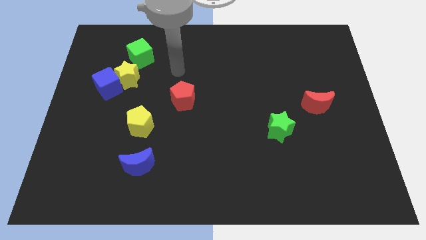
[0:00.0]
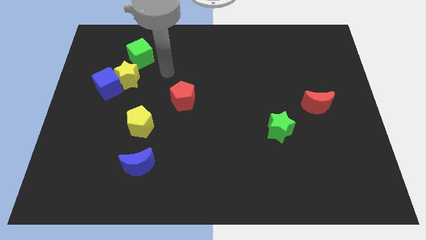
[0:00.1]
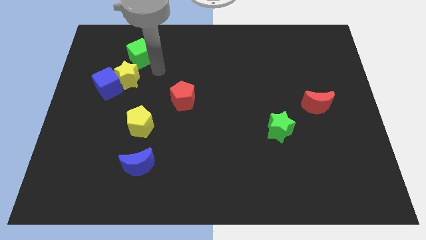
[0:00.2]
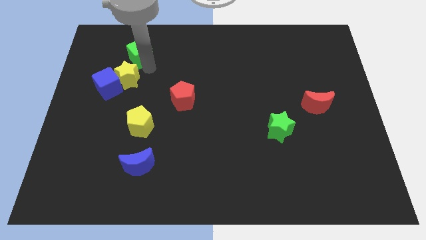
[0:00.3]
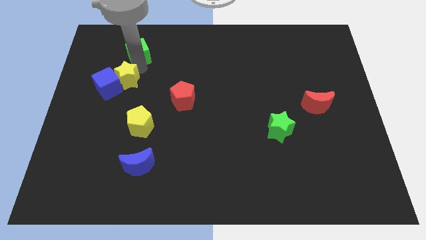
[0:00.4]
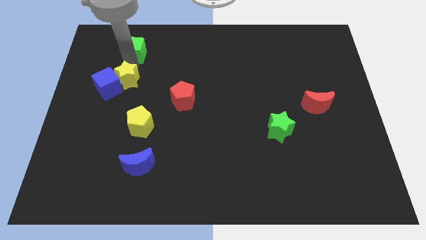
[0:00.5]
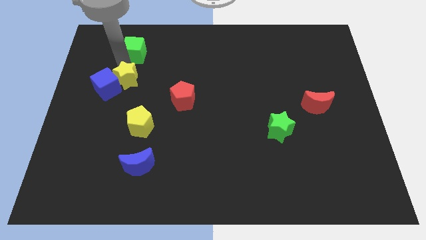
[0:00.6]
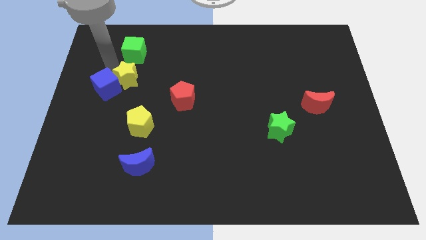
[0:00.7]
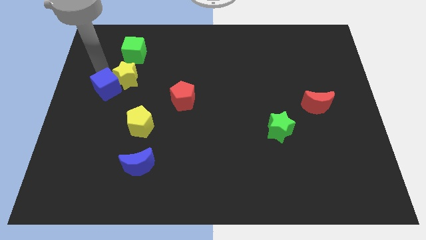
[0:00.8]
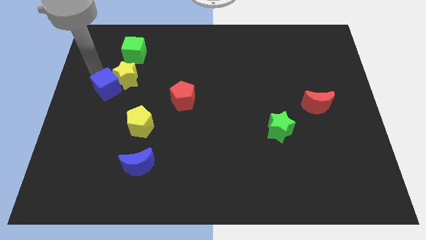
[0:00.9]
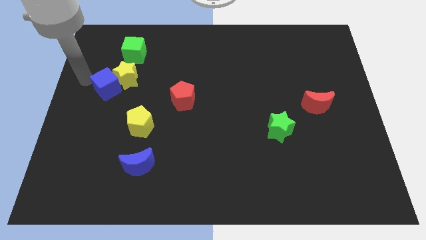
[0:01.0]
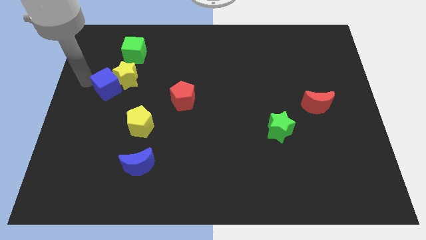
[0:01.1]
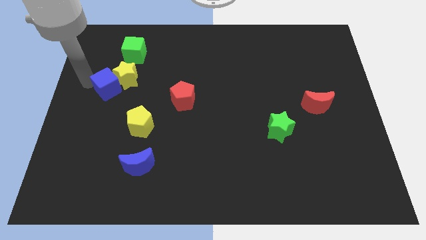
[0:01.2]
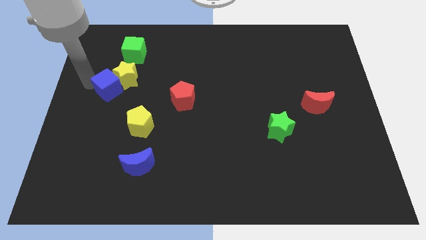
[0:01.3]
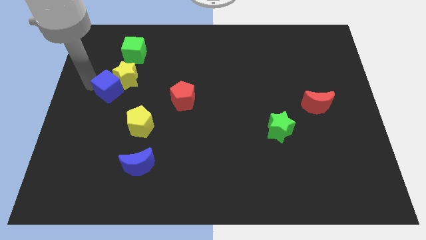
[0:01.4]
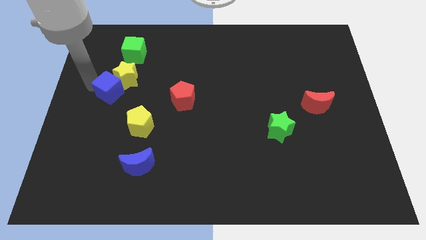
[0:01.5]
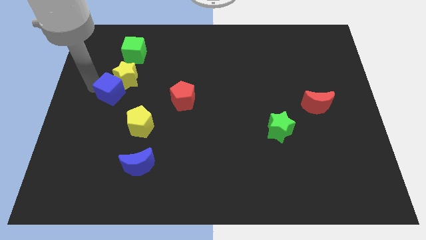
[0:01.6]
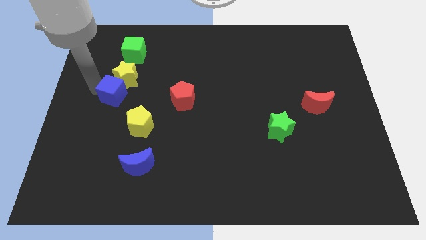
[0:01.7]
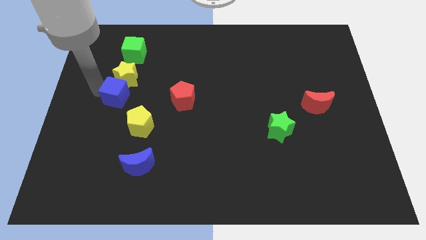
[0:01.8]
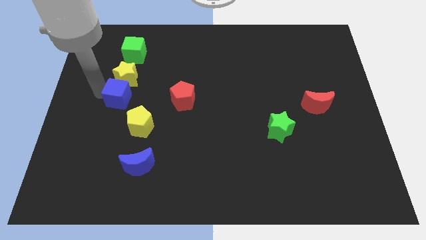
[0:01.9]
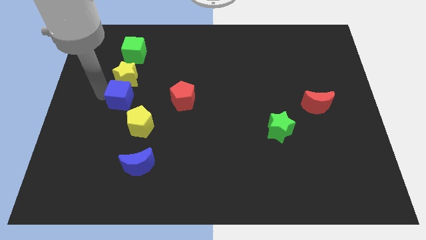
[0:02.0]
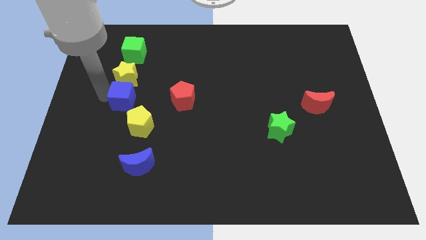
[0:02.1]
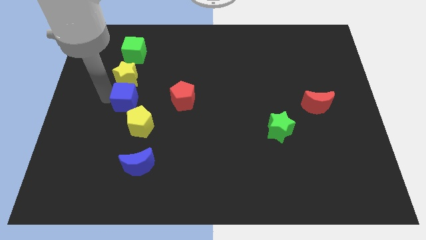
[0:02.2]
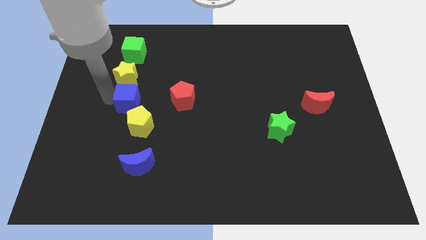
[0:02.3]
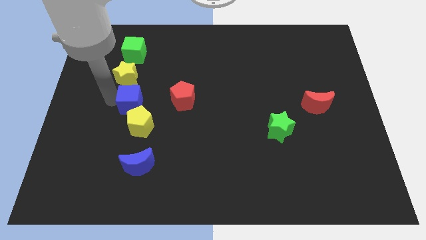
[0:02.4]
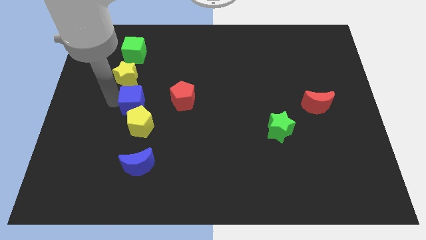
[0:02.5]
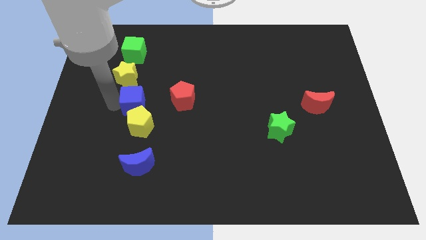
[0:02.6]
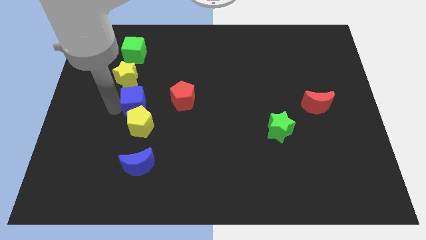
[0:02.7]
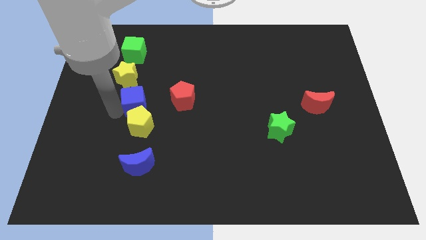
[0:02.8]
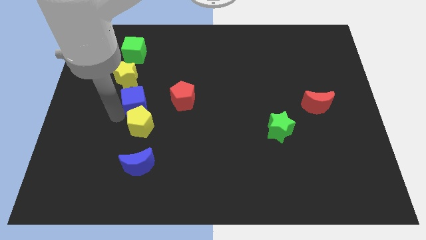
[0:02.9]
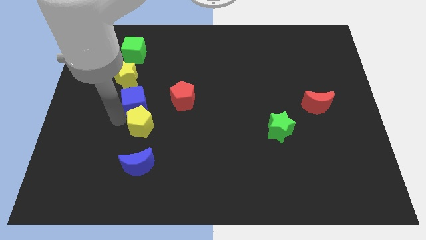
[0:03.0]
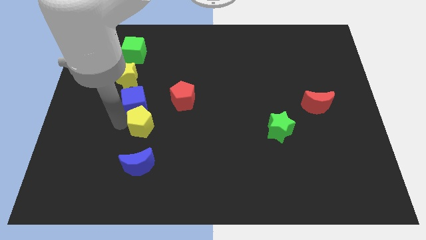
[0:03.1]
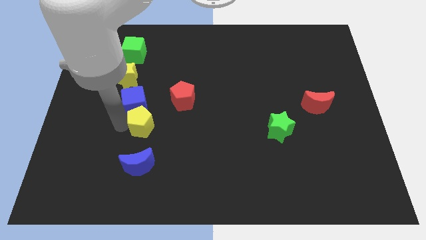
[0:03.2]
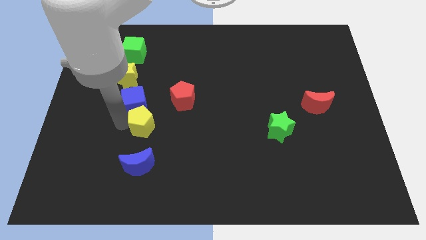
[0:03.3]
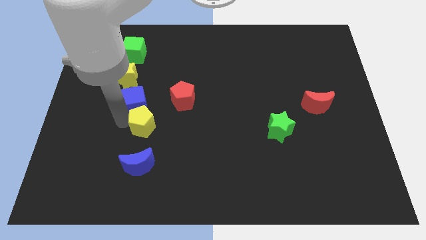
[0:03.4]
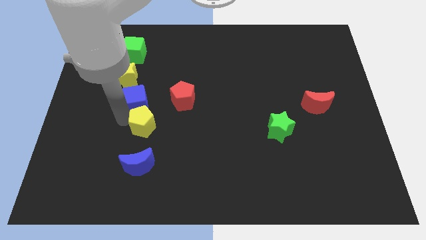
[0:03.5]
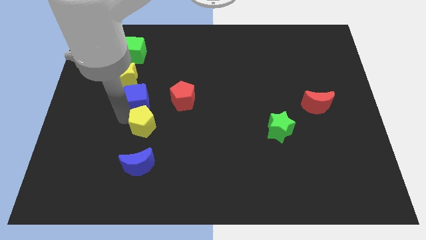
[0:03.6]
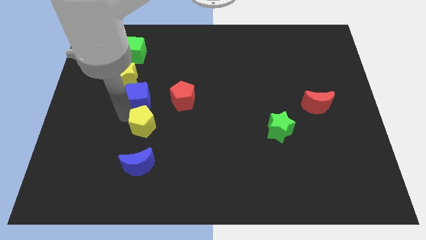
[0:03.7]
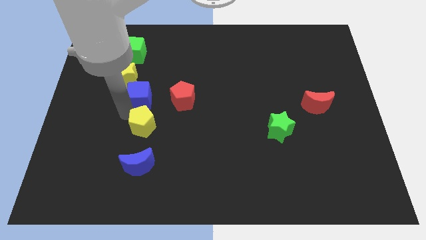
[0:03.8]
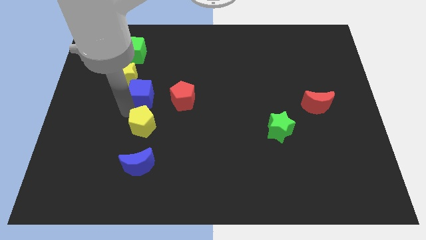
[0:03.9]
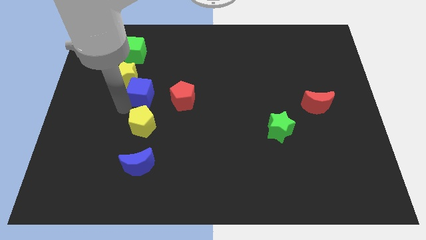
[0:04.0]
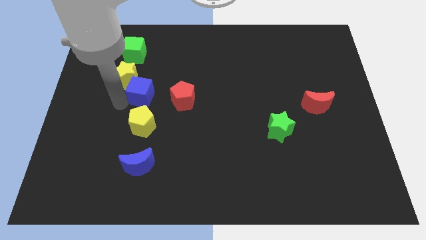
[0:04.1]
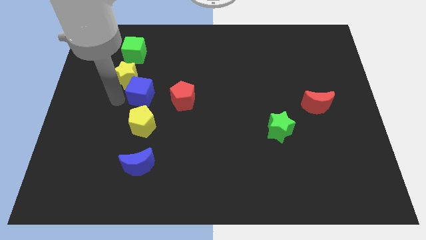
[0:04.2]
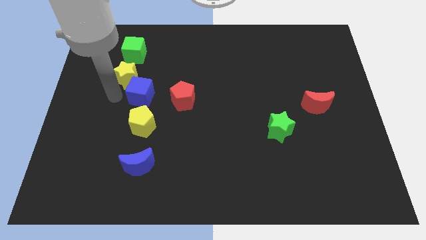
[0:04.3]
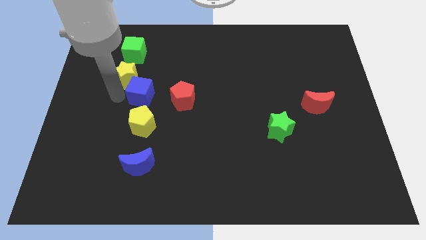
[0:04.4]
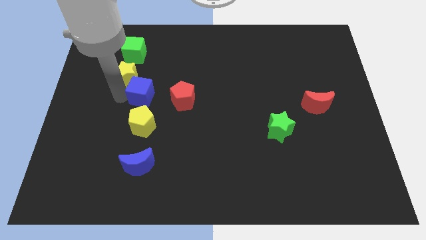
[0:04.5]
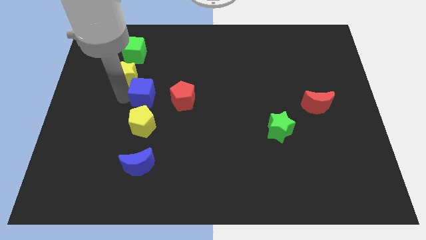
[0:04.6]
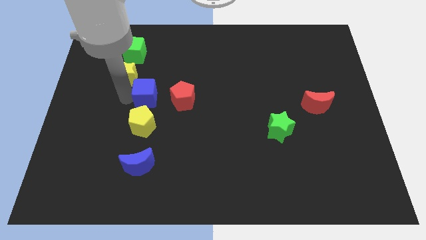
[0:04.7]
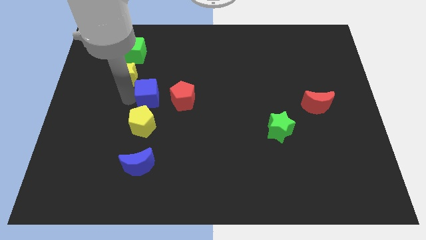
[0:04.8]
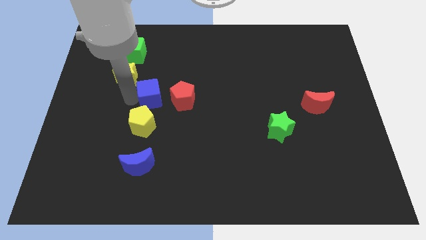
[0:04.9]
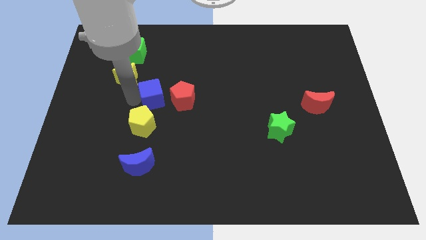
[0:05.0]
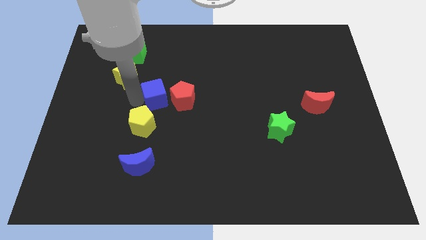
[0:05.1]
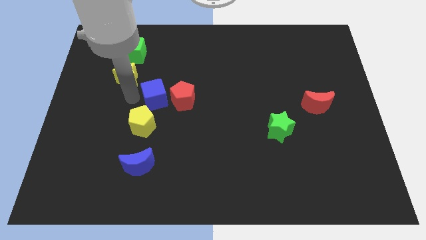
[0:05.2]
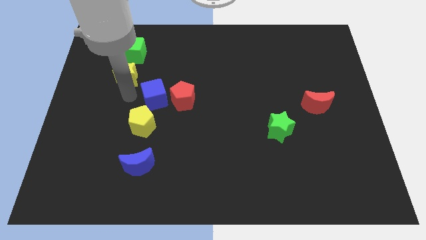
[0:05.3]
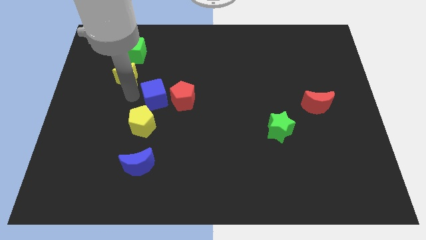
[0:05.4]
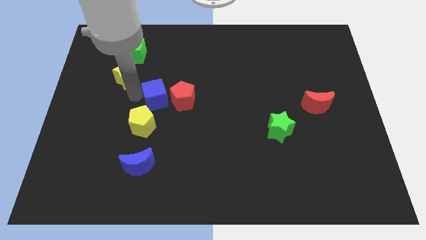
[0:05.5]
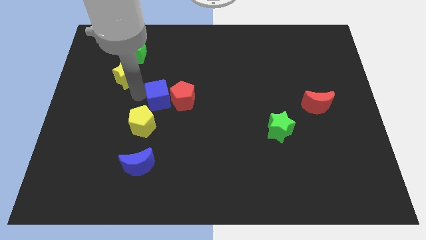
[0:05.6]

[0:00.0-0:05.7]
put the blue cube towards the red pentagon

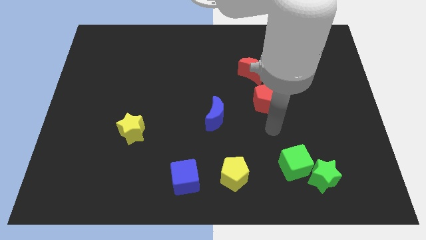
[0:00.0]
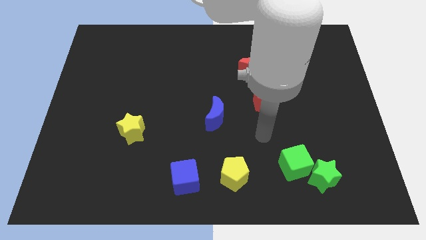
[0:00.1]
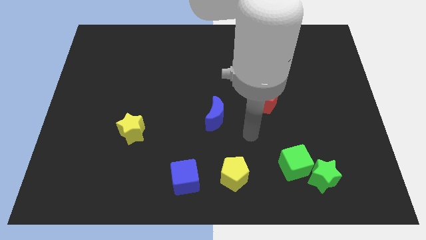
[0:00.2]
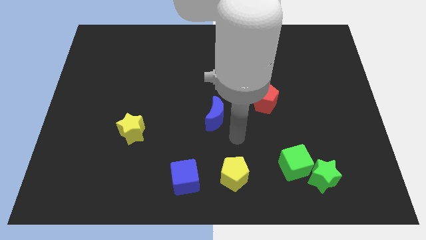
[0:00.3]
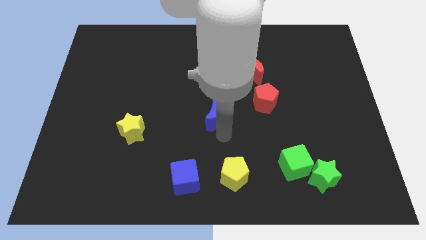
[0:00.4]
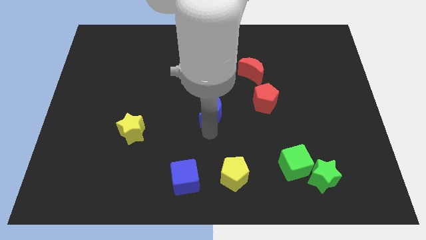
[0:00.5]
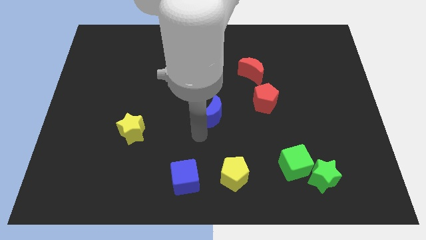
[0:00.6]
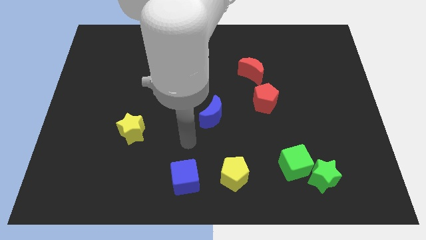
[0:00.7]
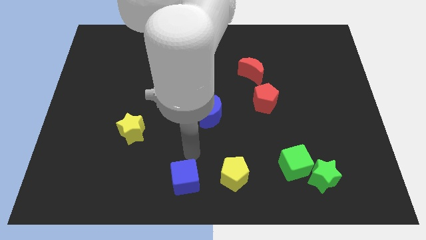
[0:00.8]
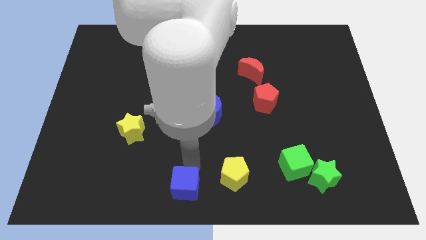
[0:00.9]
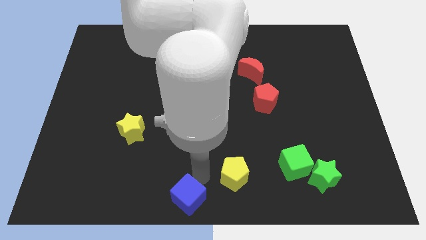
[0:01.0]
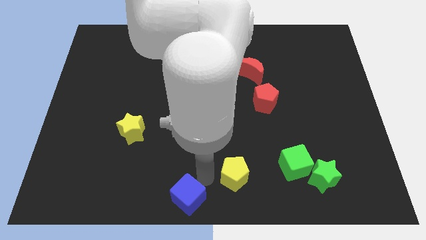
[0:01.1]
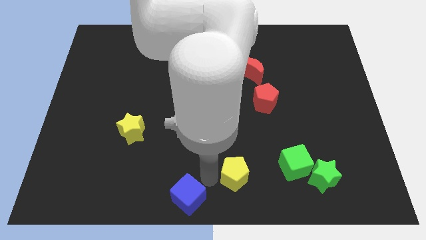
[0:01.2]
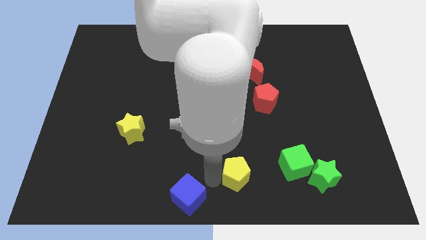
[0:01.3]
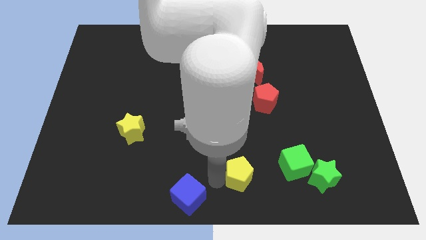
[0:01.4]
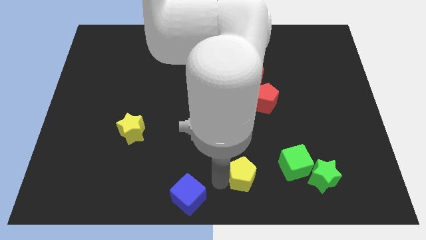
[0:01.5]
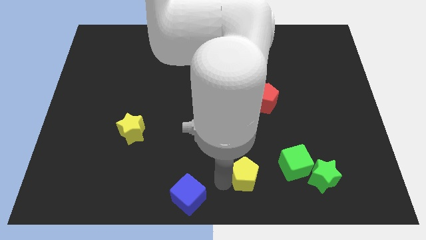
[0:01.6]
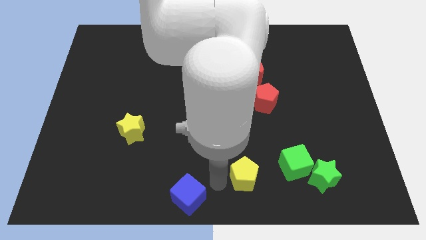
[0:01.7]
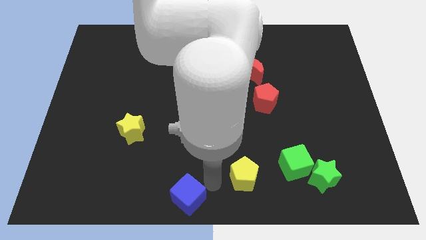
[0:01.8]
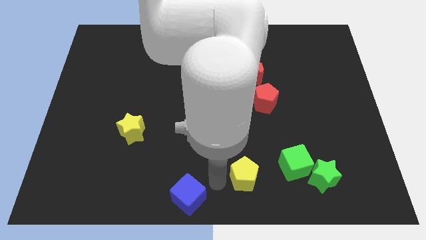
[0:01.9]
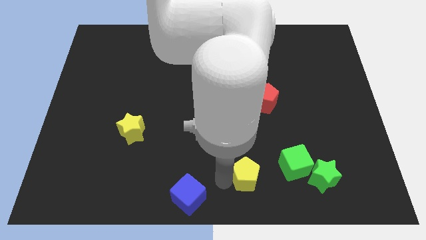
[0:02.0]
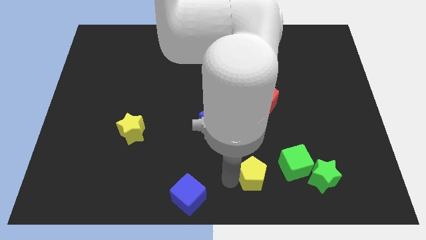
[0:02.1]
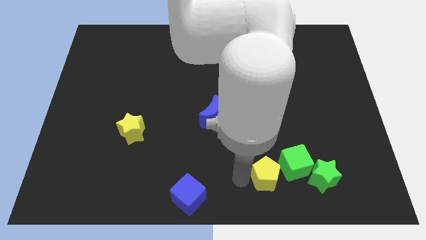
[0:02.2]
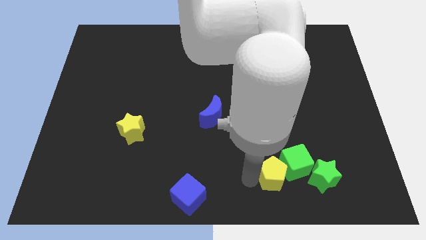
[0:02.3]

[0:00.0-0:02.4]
push the yellow pentagon close to the green cube
